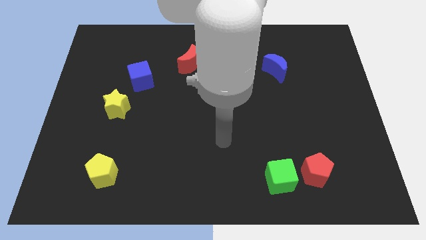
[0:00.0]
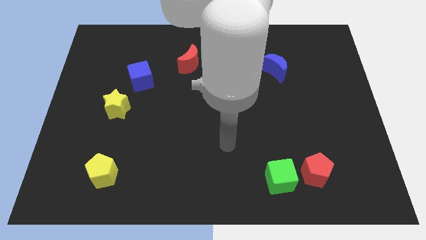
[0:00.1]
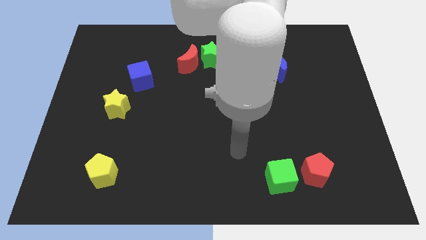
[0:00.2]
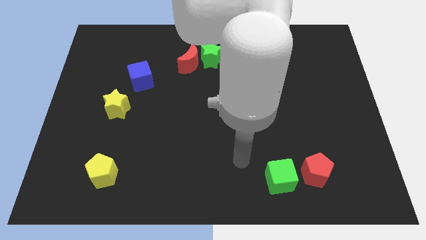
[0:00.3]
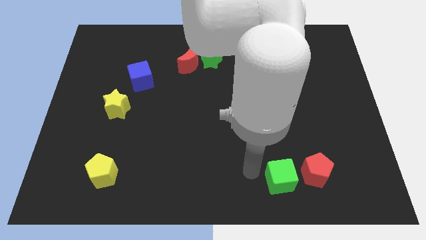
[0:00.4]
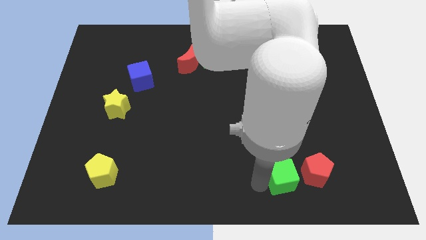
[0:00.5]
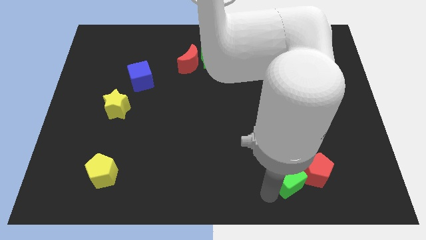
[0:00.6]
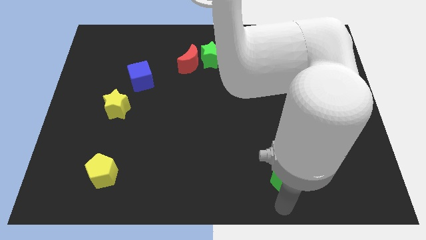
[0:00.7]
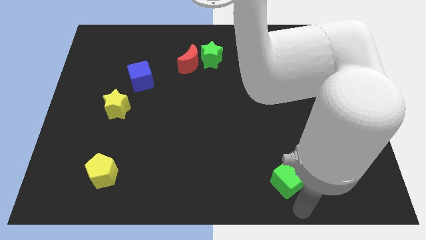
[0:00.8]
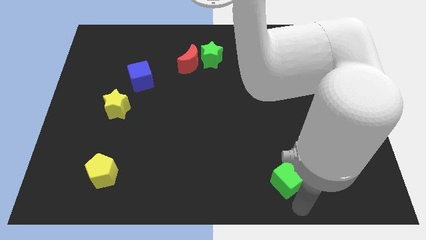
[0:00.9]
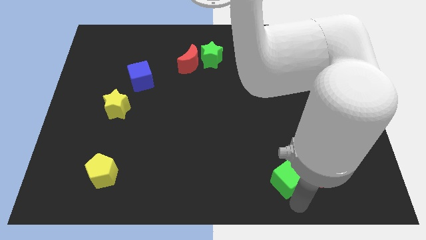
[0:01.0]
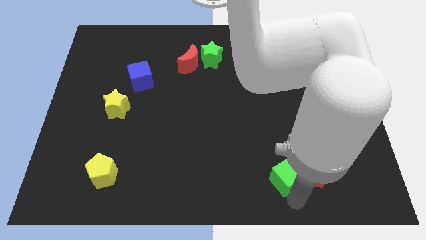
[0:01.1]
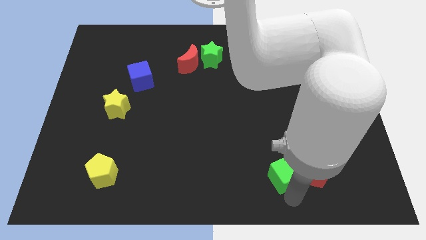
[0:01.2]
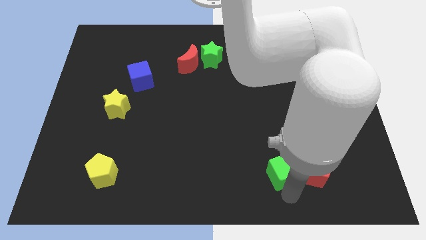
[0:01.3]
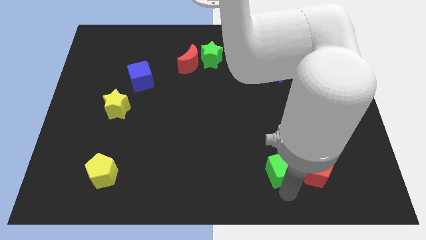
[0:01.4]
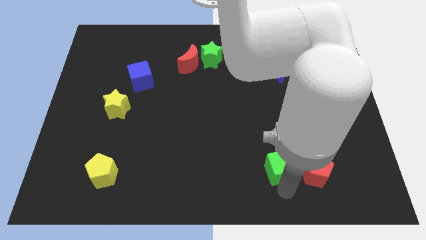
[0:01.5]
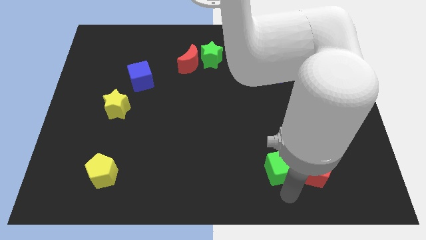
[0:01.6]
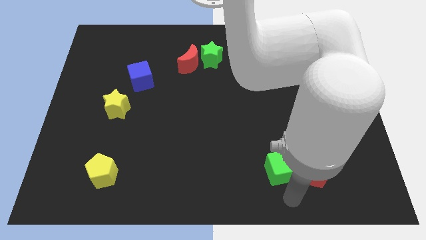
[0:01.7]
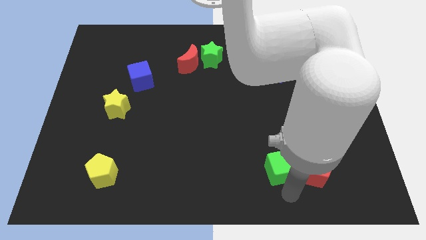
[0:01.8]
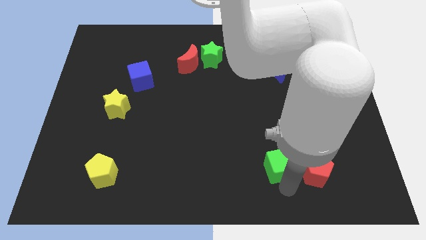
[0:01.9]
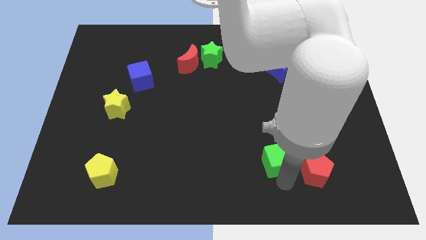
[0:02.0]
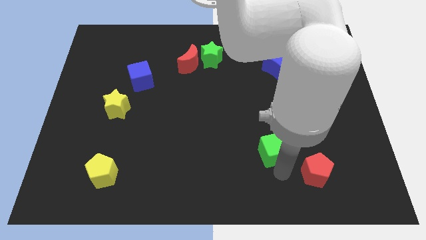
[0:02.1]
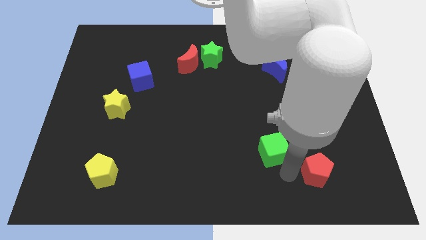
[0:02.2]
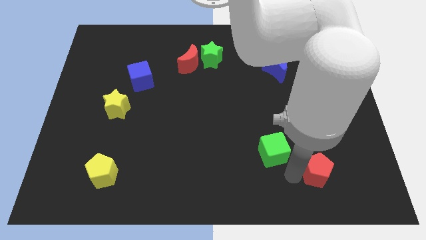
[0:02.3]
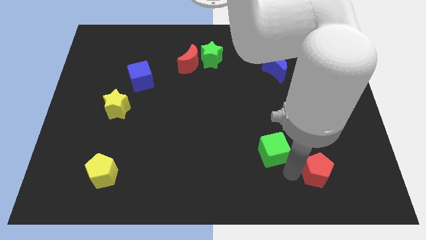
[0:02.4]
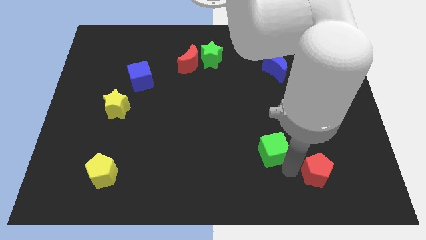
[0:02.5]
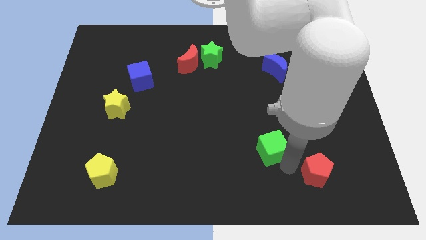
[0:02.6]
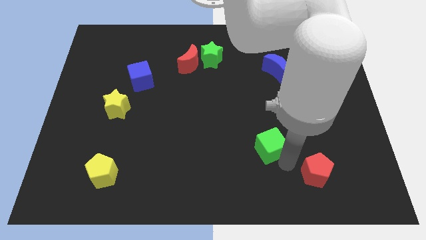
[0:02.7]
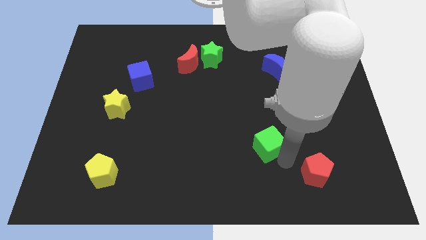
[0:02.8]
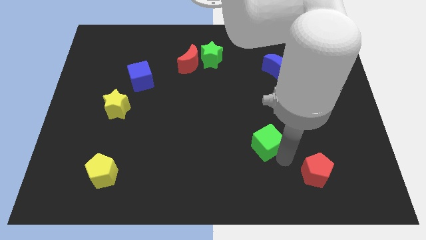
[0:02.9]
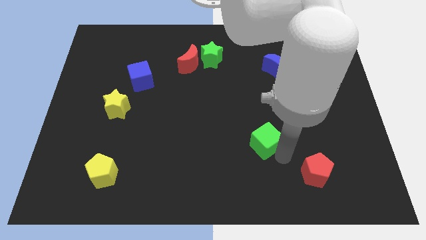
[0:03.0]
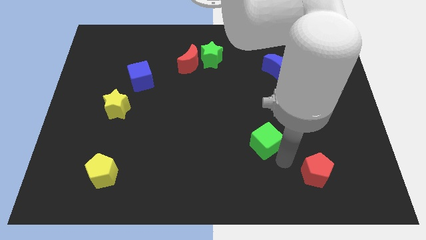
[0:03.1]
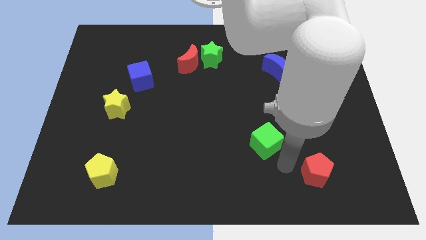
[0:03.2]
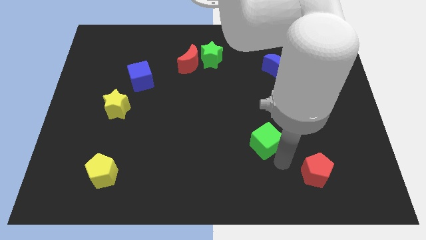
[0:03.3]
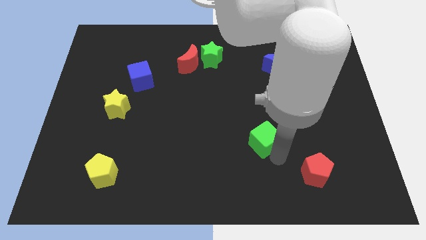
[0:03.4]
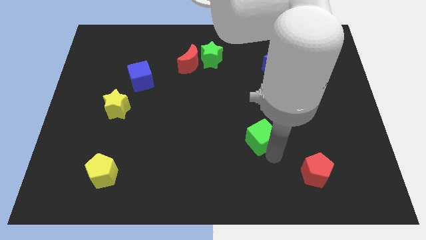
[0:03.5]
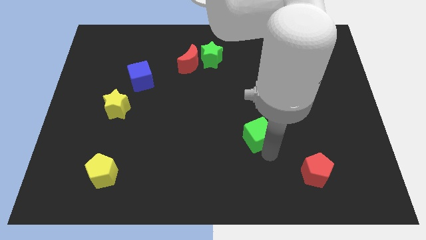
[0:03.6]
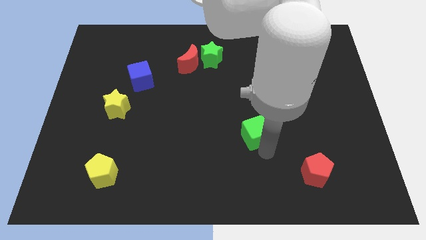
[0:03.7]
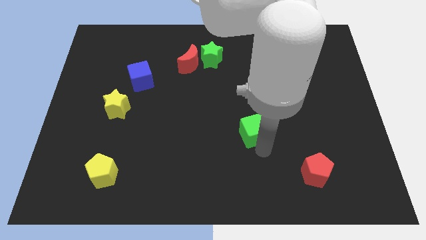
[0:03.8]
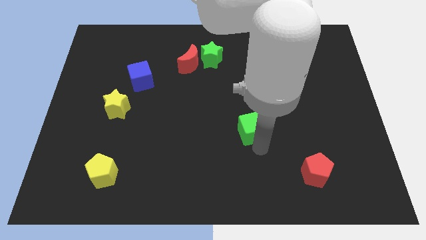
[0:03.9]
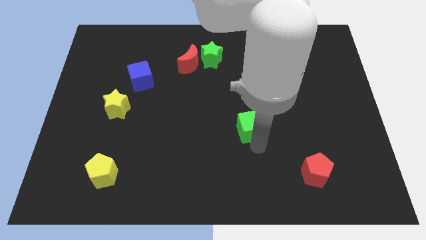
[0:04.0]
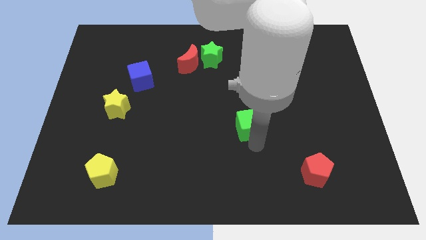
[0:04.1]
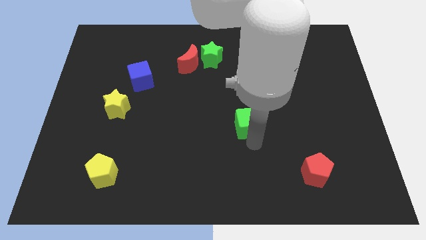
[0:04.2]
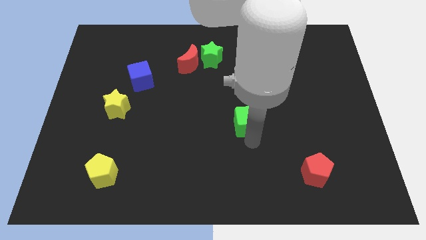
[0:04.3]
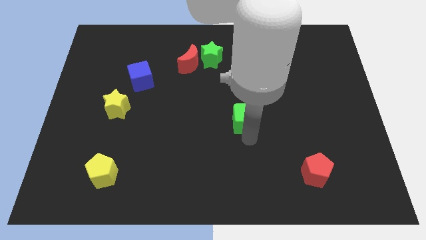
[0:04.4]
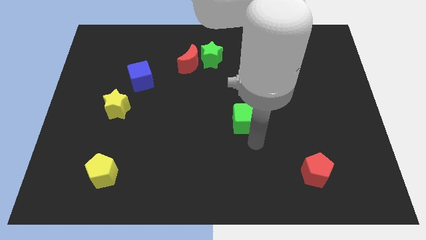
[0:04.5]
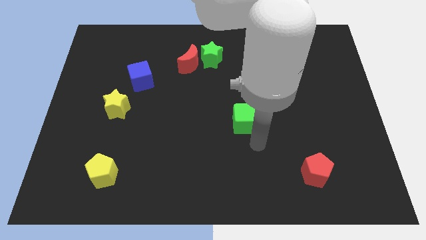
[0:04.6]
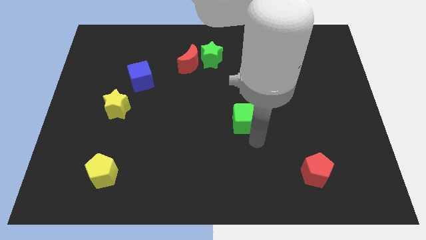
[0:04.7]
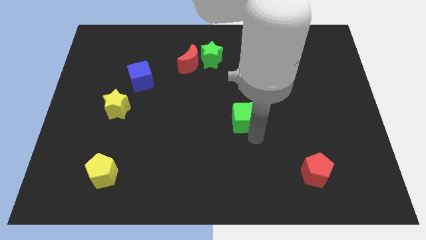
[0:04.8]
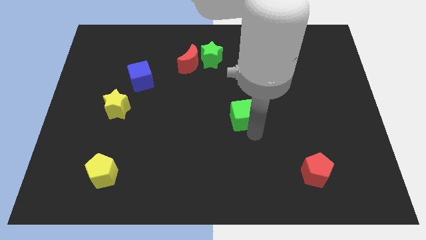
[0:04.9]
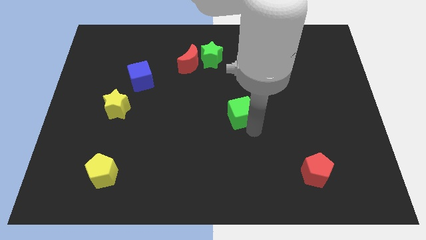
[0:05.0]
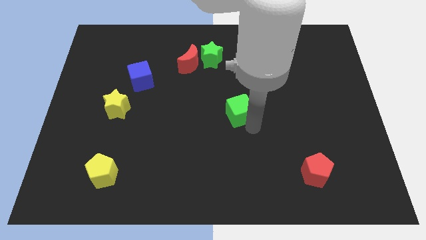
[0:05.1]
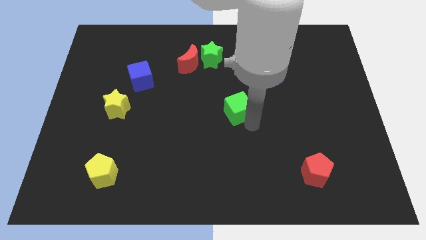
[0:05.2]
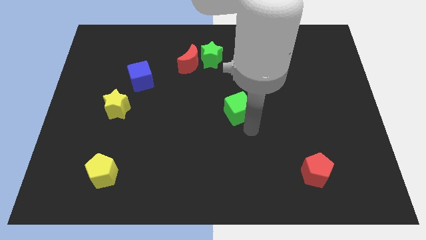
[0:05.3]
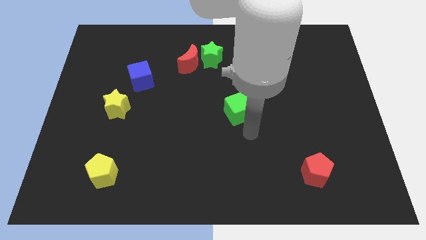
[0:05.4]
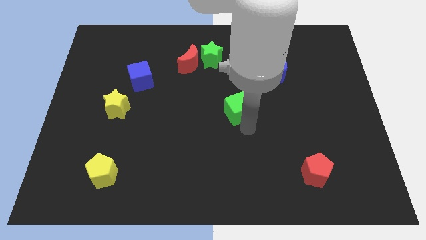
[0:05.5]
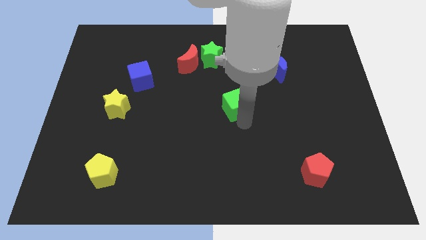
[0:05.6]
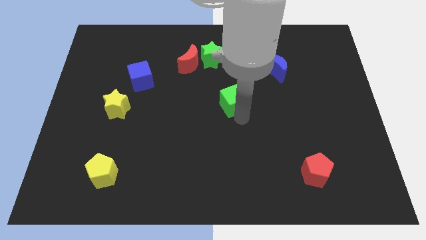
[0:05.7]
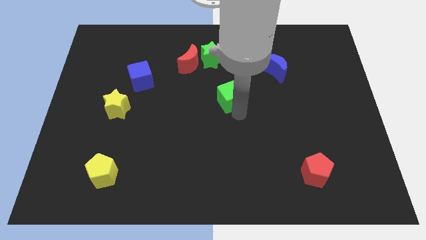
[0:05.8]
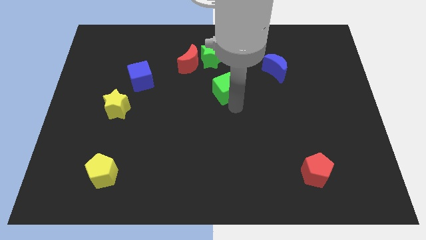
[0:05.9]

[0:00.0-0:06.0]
move the green cube to the bottom right of the red moon
